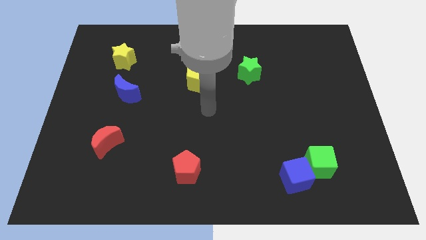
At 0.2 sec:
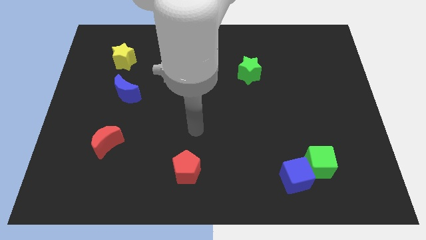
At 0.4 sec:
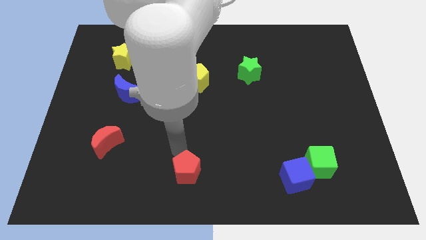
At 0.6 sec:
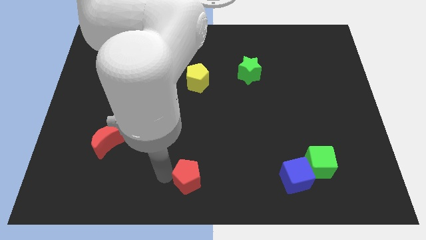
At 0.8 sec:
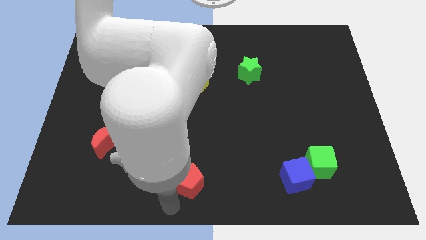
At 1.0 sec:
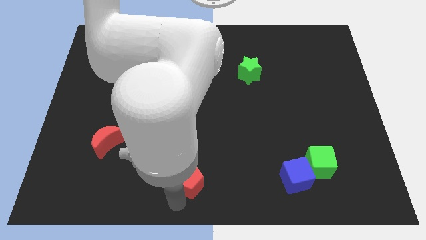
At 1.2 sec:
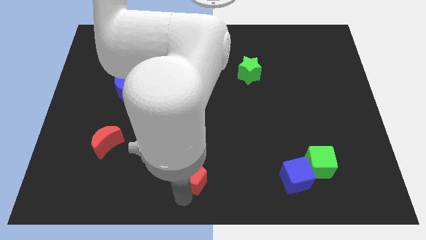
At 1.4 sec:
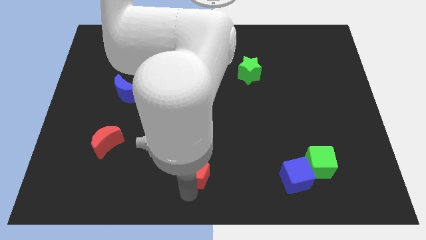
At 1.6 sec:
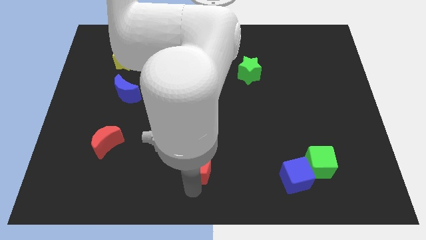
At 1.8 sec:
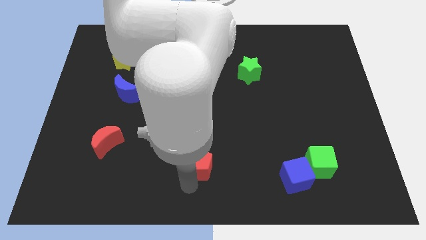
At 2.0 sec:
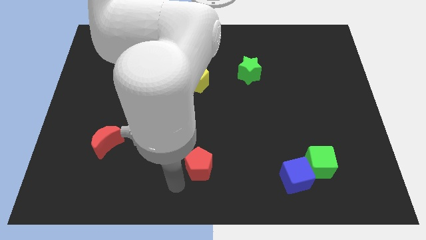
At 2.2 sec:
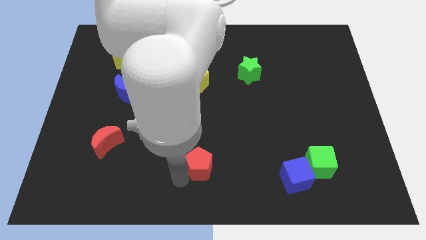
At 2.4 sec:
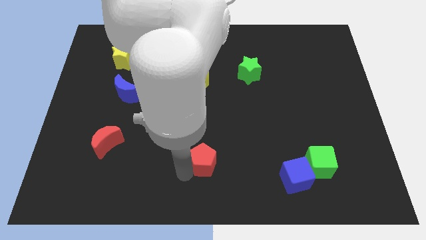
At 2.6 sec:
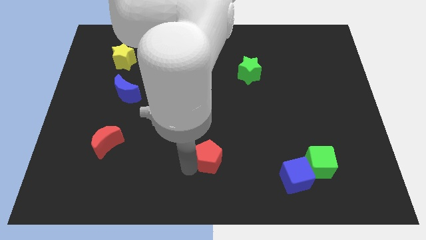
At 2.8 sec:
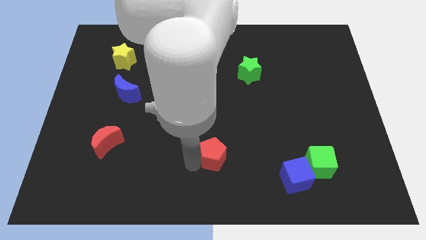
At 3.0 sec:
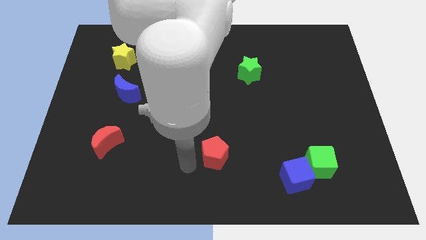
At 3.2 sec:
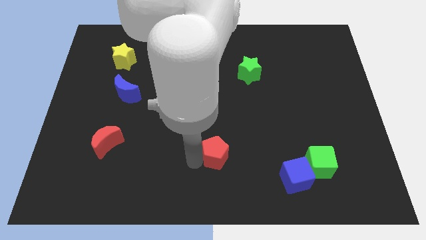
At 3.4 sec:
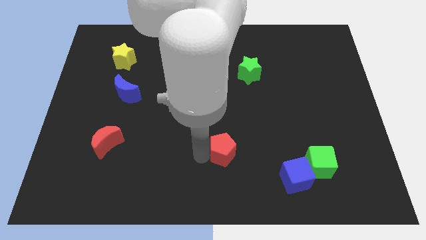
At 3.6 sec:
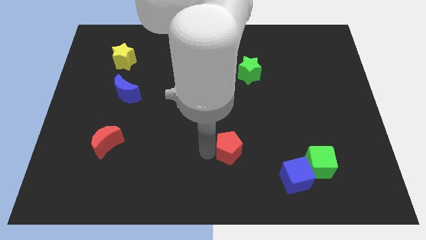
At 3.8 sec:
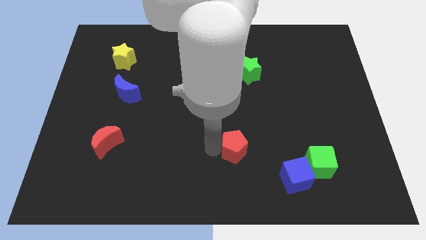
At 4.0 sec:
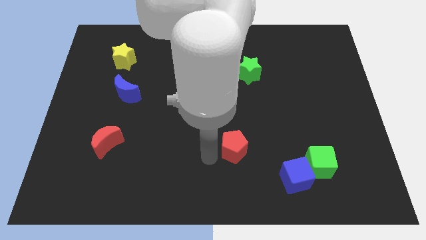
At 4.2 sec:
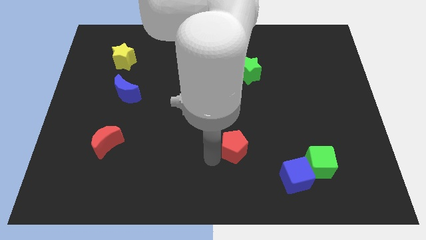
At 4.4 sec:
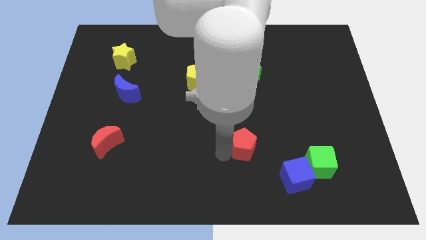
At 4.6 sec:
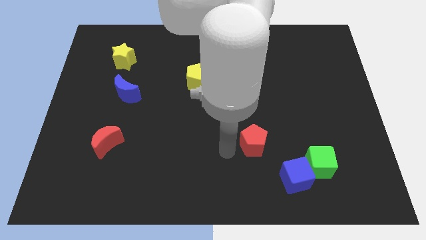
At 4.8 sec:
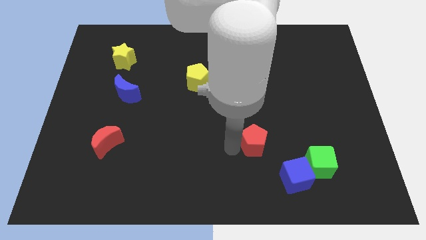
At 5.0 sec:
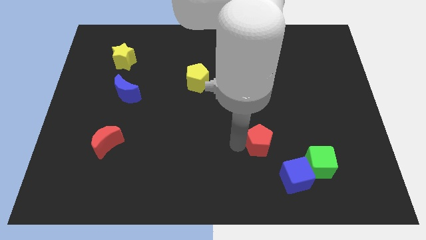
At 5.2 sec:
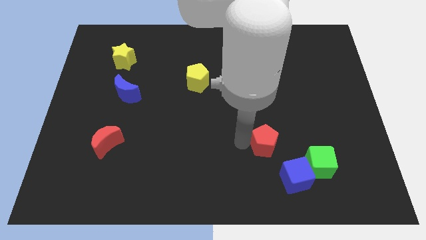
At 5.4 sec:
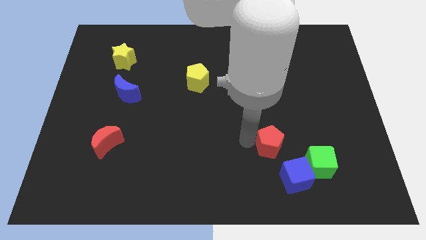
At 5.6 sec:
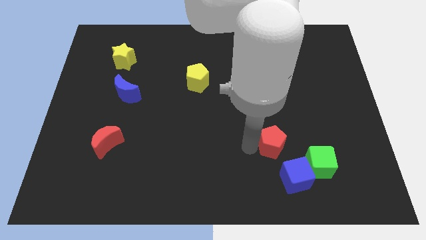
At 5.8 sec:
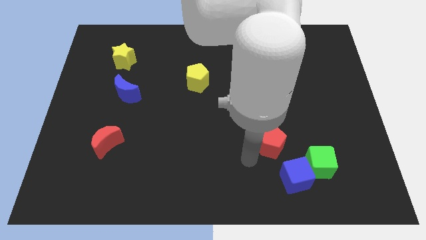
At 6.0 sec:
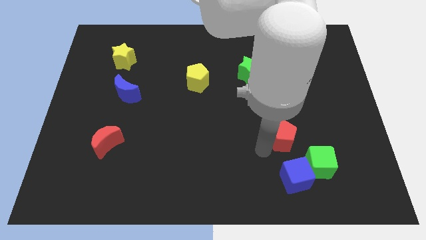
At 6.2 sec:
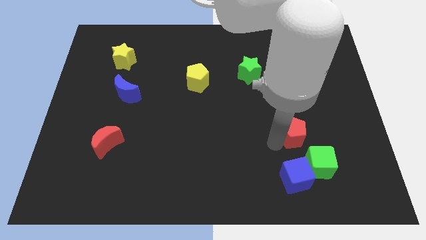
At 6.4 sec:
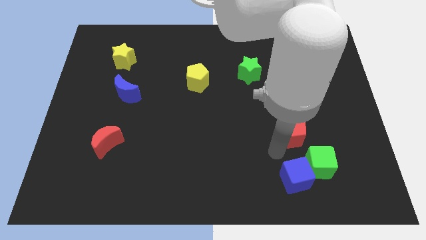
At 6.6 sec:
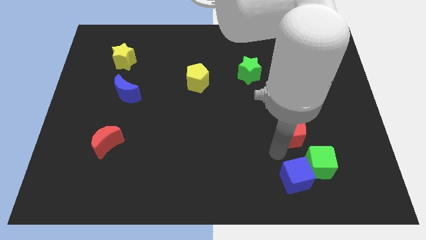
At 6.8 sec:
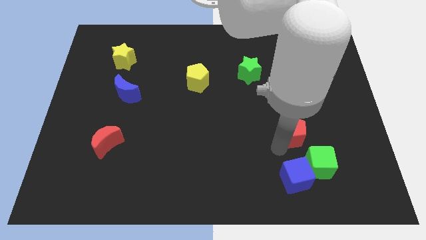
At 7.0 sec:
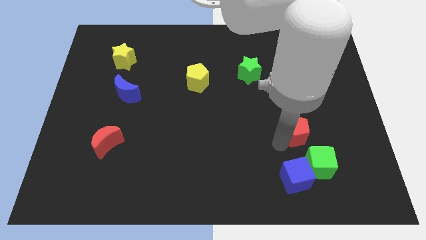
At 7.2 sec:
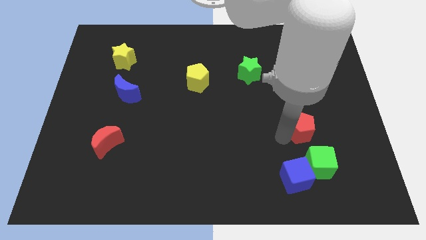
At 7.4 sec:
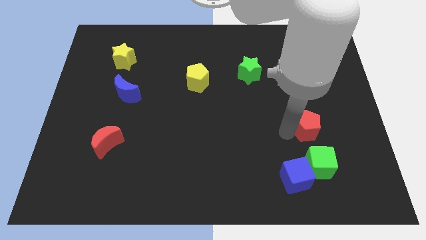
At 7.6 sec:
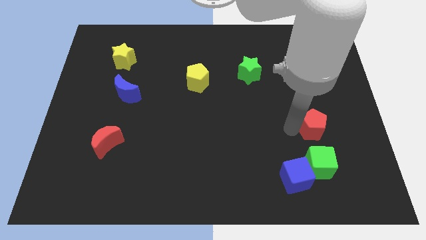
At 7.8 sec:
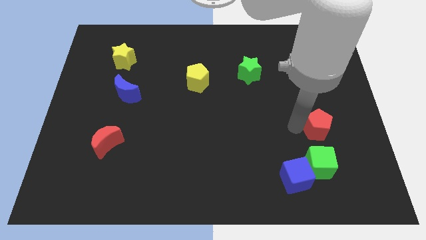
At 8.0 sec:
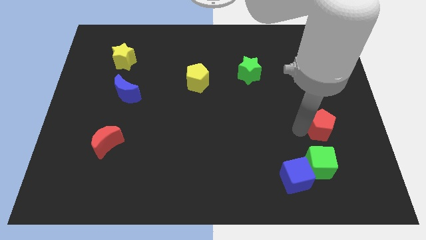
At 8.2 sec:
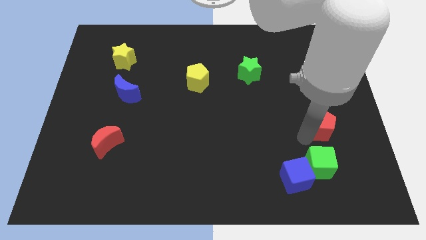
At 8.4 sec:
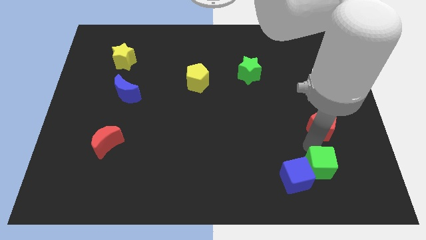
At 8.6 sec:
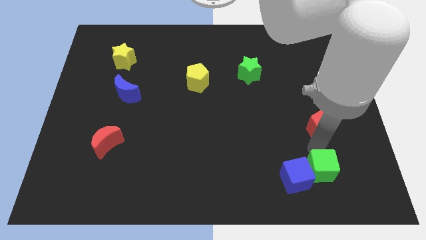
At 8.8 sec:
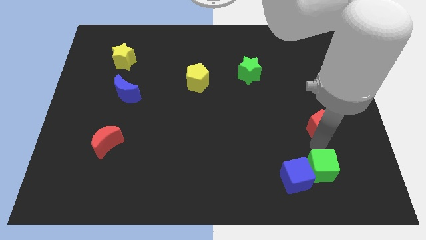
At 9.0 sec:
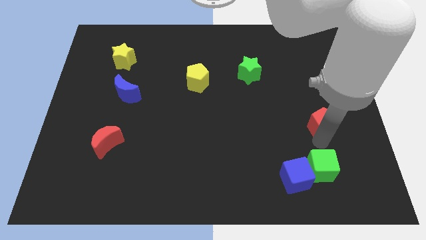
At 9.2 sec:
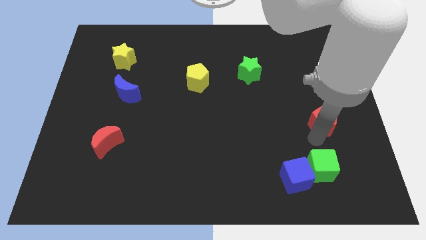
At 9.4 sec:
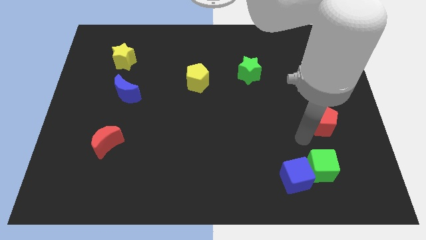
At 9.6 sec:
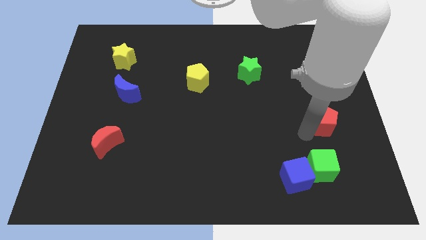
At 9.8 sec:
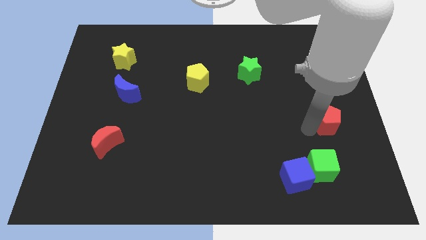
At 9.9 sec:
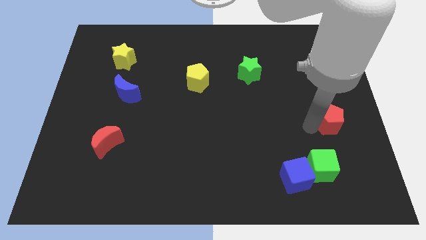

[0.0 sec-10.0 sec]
move the red pentagon to the center right

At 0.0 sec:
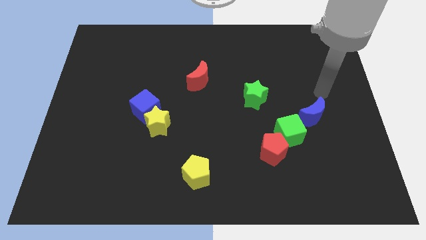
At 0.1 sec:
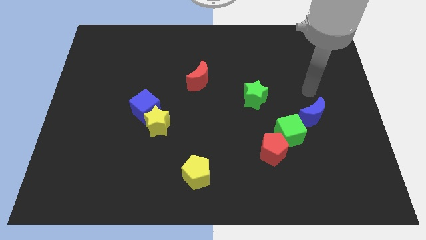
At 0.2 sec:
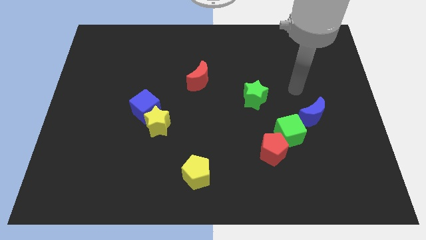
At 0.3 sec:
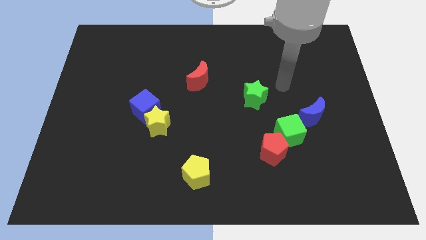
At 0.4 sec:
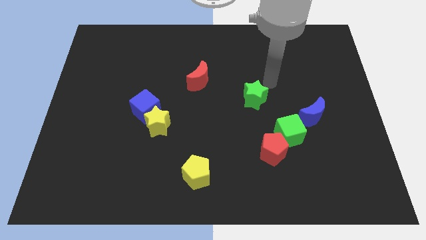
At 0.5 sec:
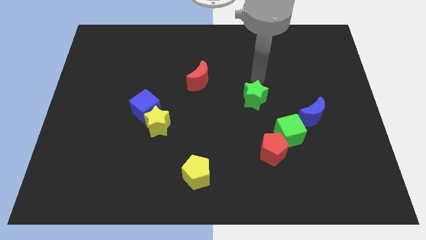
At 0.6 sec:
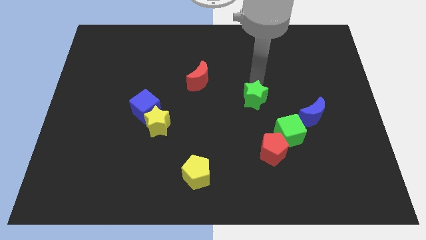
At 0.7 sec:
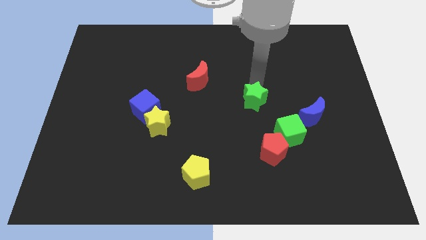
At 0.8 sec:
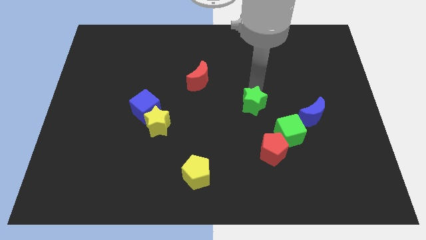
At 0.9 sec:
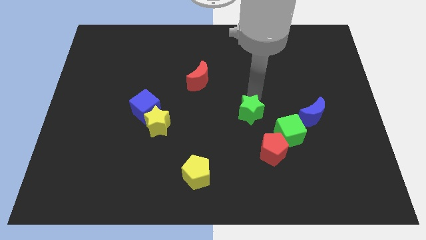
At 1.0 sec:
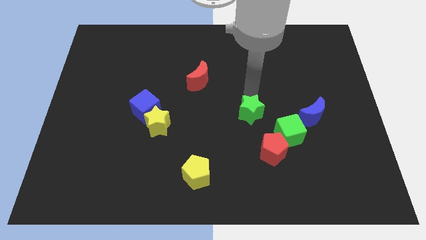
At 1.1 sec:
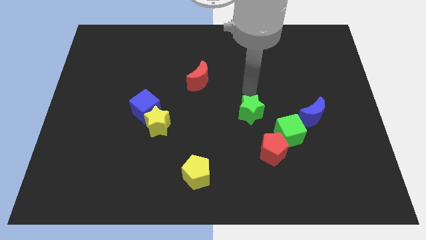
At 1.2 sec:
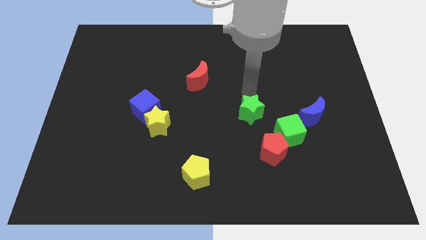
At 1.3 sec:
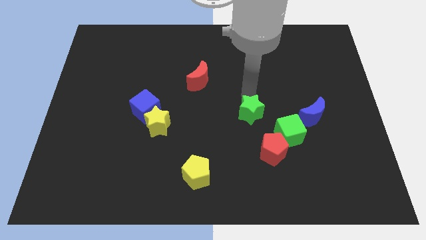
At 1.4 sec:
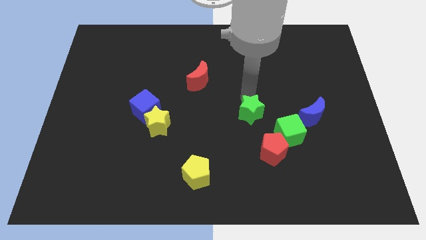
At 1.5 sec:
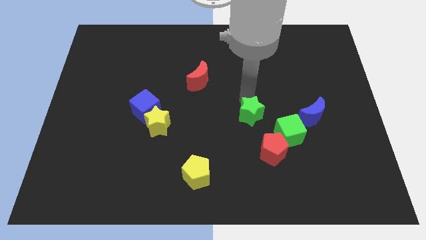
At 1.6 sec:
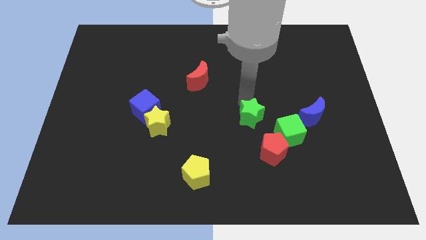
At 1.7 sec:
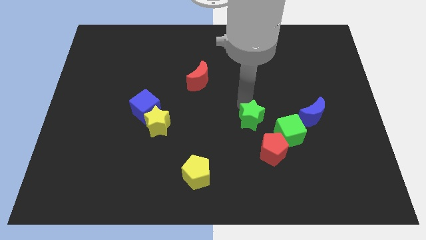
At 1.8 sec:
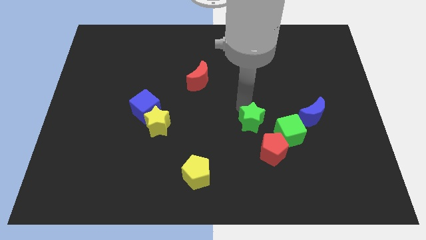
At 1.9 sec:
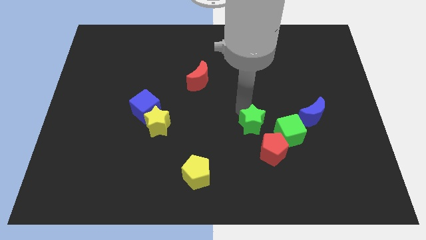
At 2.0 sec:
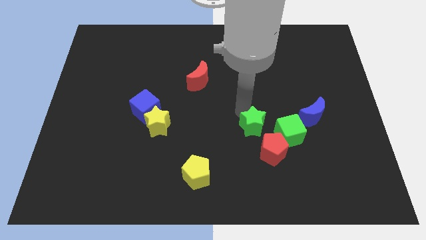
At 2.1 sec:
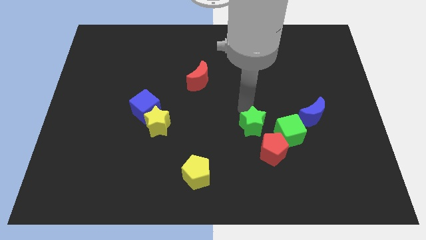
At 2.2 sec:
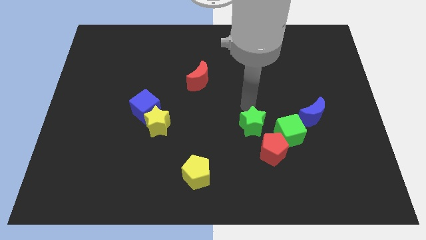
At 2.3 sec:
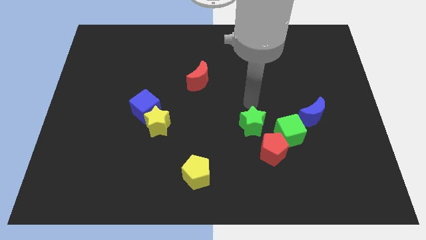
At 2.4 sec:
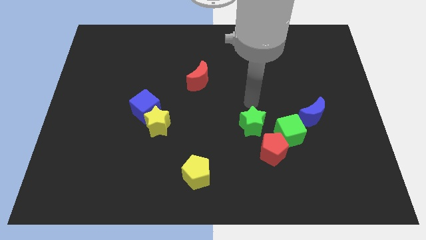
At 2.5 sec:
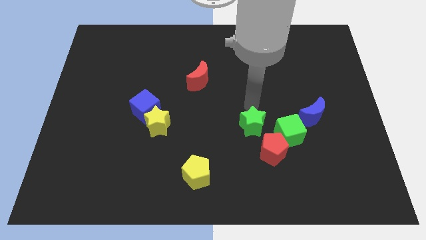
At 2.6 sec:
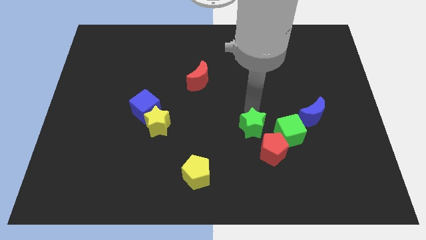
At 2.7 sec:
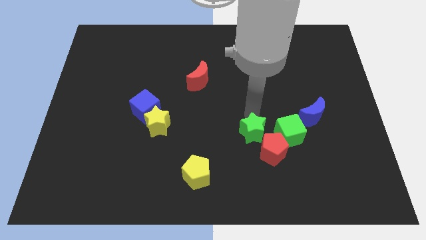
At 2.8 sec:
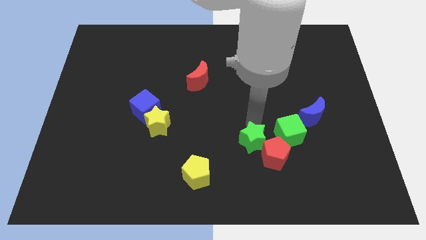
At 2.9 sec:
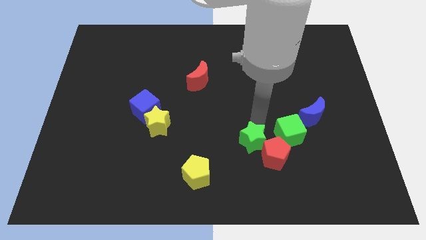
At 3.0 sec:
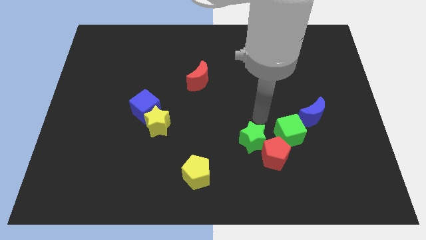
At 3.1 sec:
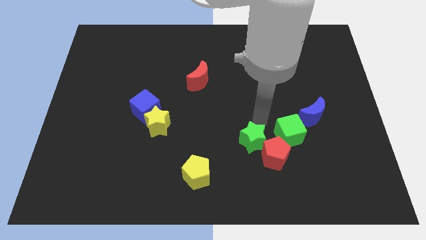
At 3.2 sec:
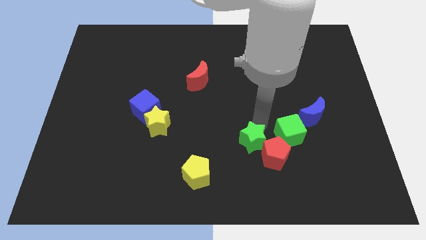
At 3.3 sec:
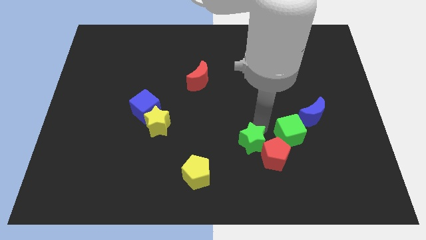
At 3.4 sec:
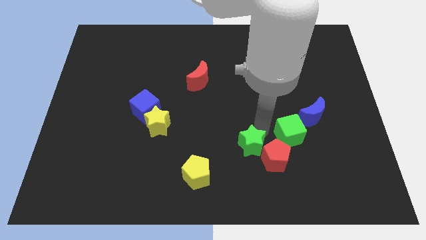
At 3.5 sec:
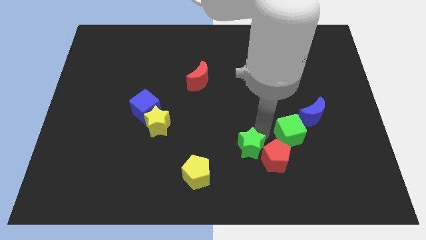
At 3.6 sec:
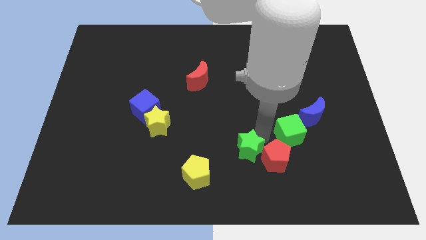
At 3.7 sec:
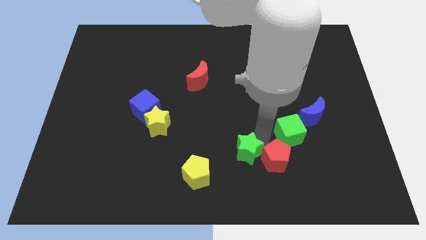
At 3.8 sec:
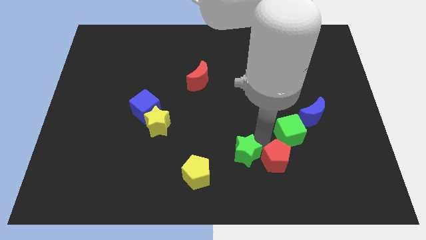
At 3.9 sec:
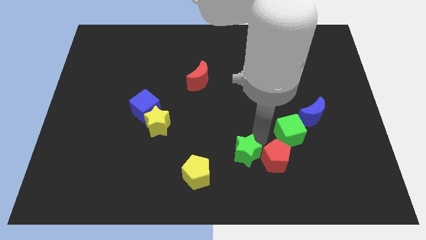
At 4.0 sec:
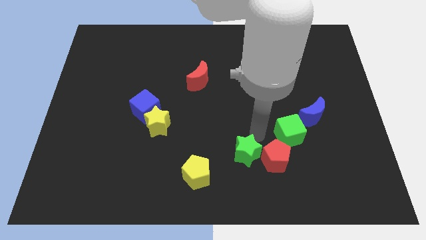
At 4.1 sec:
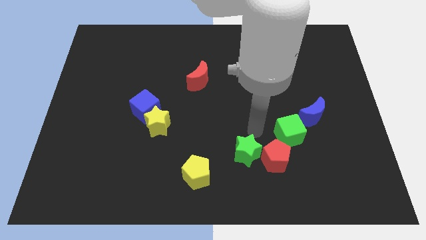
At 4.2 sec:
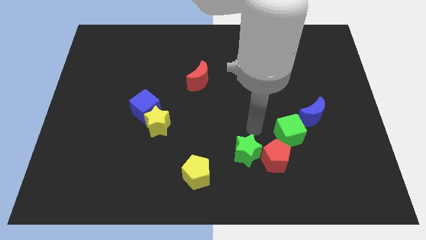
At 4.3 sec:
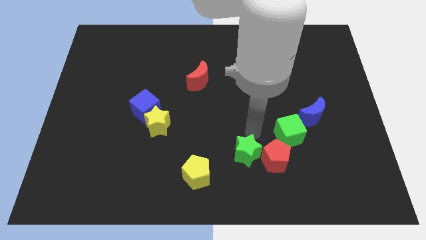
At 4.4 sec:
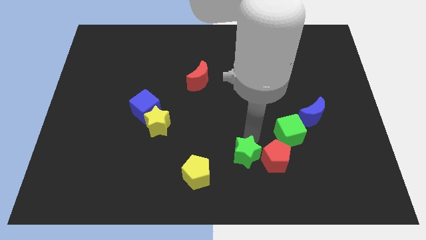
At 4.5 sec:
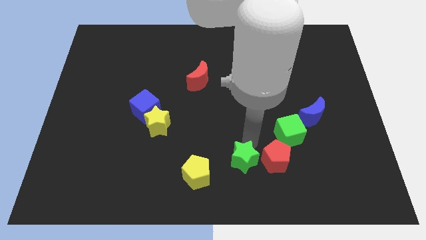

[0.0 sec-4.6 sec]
move the green star to the bottom
